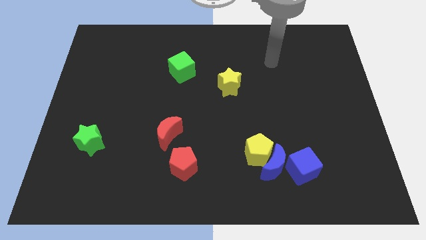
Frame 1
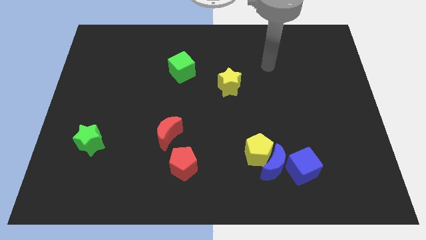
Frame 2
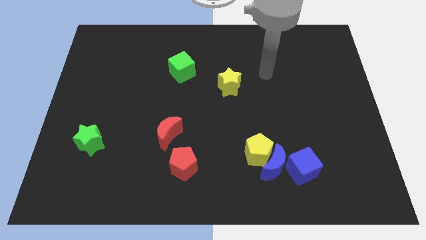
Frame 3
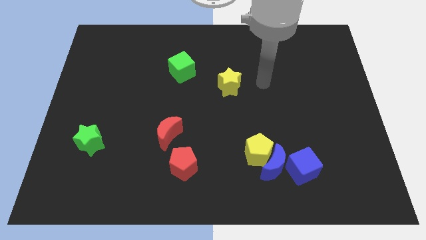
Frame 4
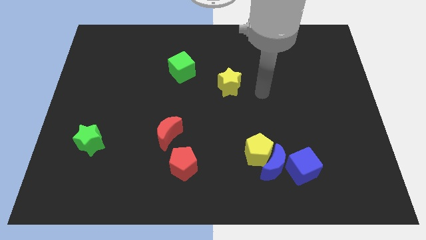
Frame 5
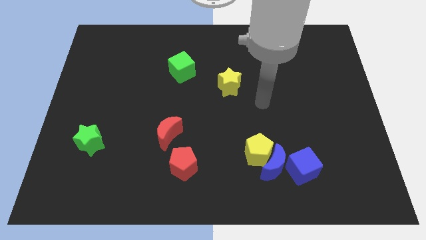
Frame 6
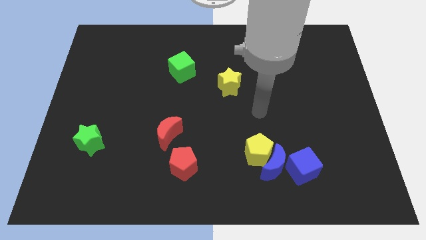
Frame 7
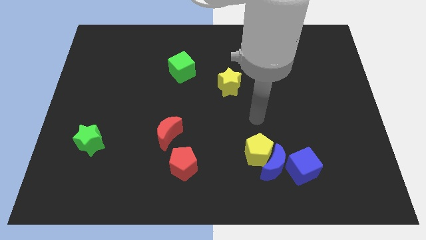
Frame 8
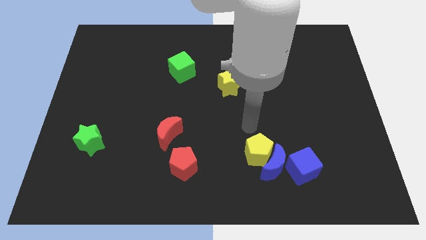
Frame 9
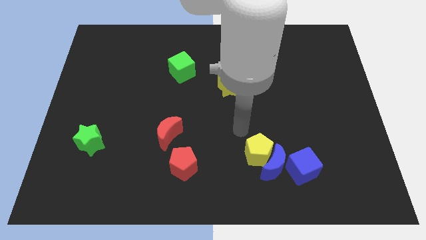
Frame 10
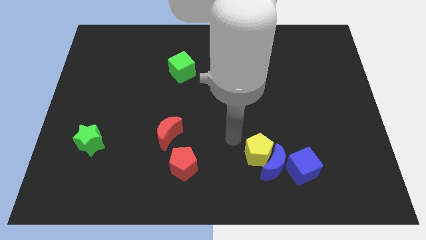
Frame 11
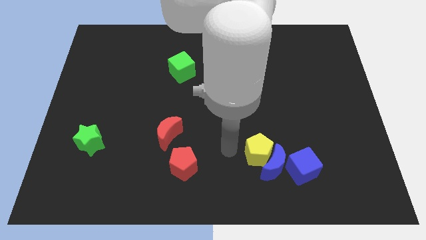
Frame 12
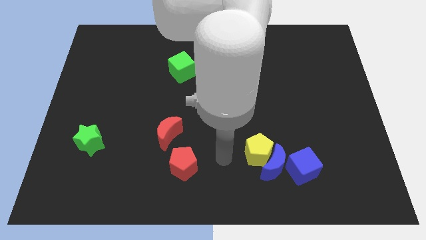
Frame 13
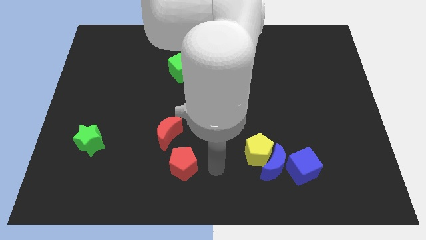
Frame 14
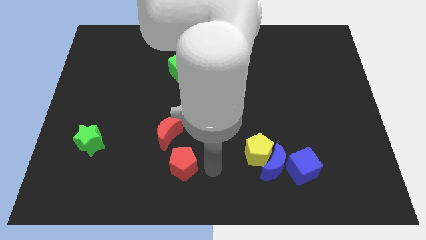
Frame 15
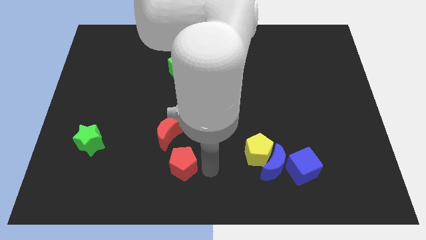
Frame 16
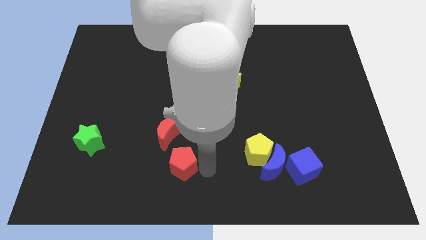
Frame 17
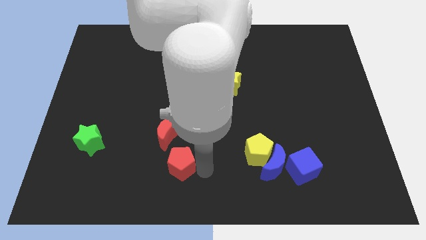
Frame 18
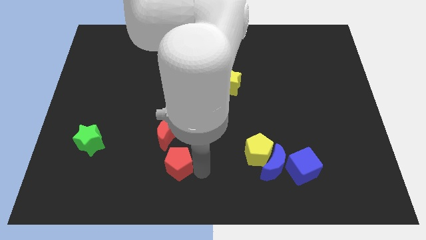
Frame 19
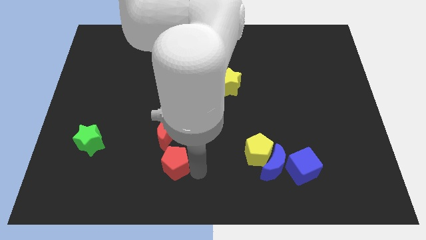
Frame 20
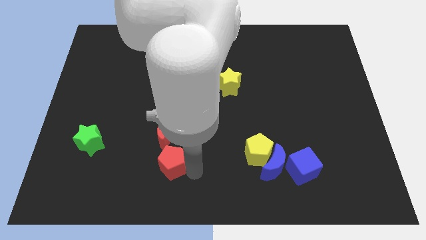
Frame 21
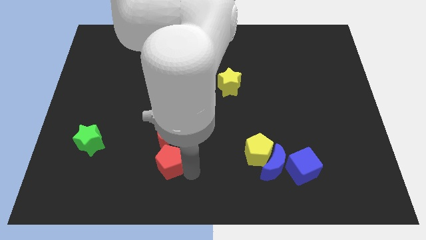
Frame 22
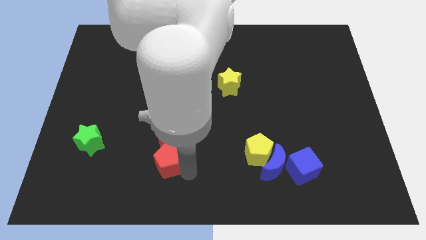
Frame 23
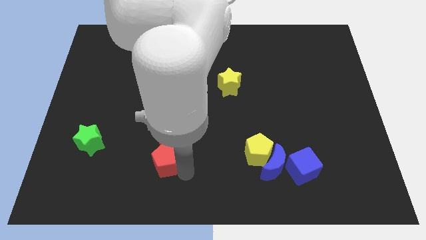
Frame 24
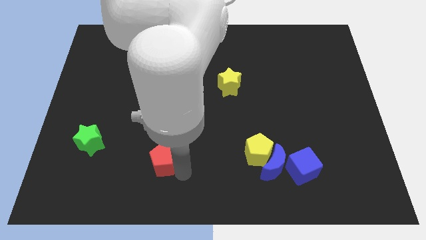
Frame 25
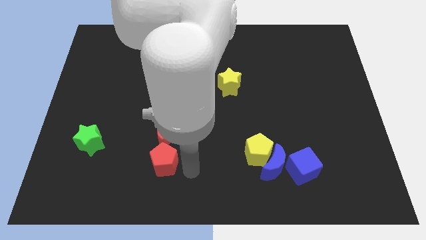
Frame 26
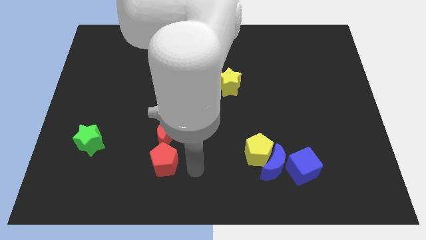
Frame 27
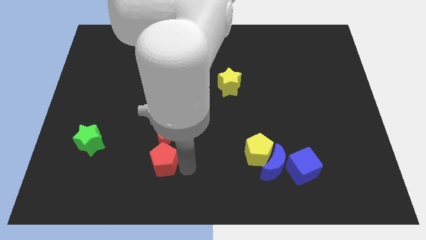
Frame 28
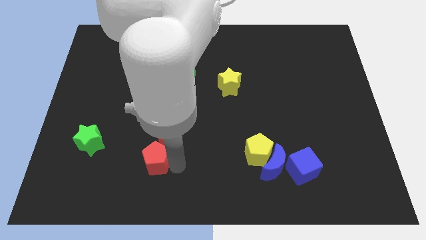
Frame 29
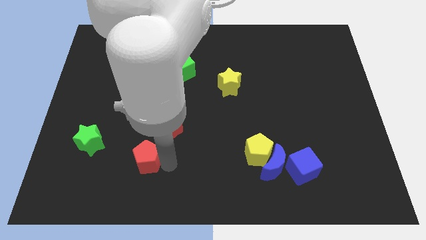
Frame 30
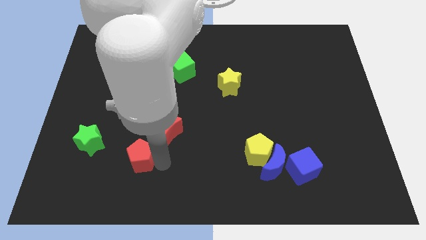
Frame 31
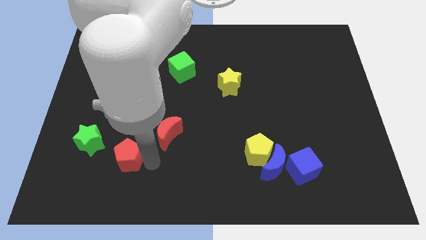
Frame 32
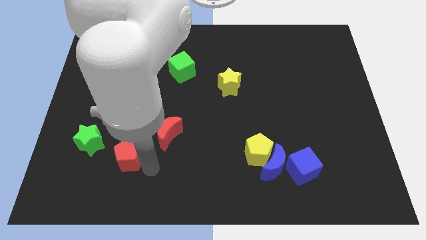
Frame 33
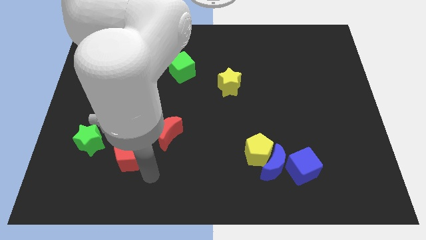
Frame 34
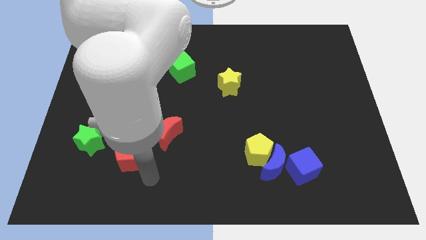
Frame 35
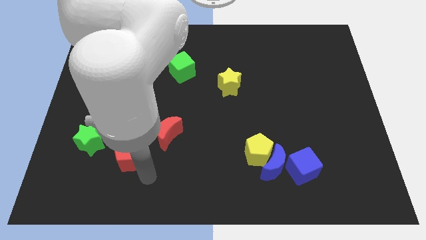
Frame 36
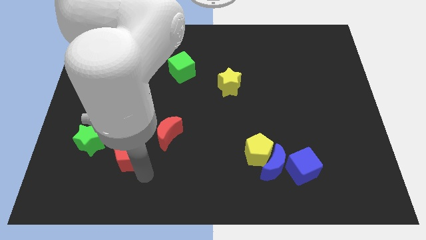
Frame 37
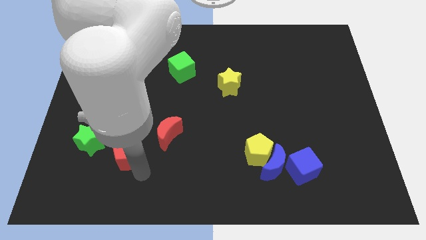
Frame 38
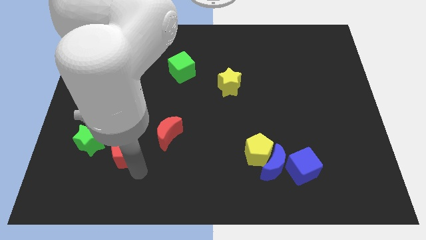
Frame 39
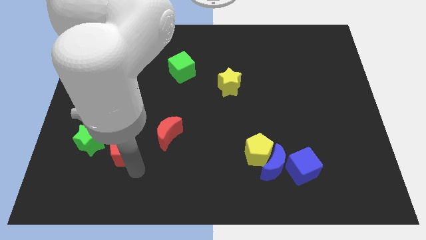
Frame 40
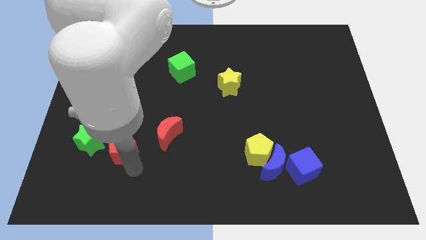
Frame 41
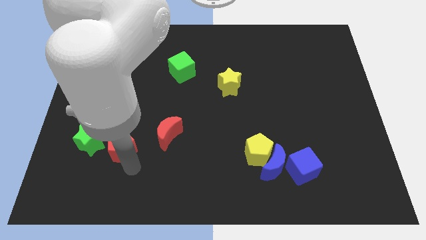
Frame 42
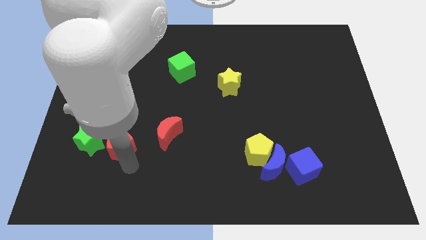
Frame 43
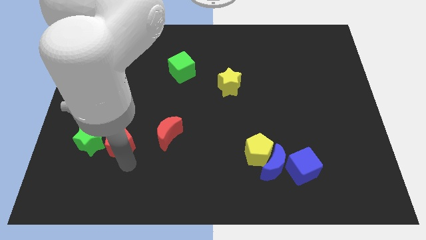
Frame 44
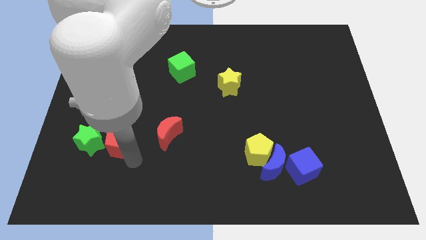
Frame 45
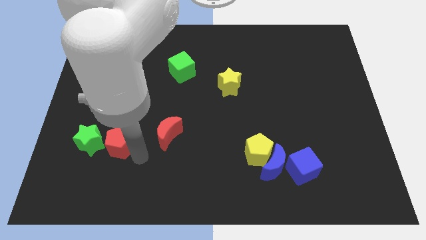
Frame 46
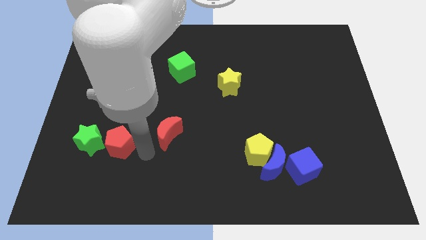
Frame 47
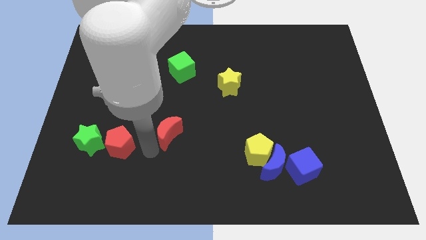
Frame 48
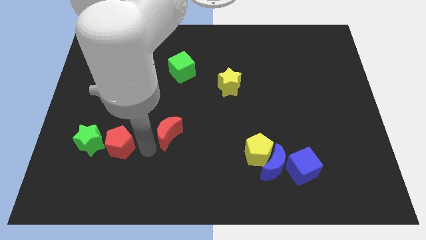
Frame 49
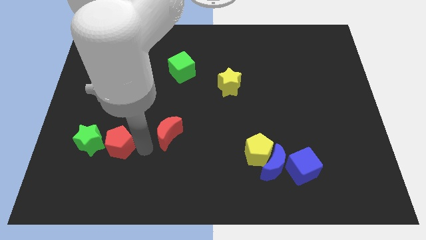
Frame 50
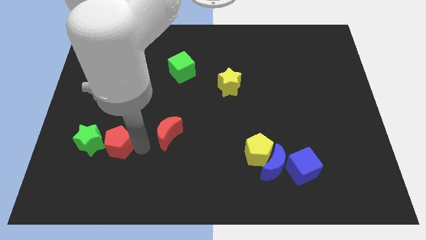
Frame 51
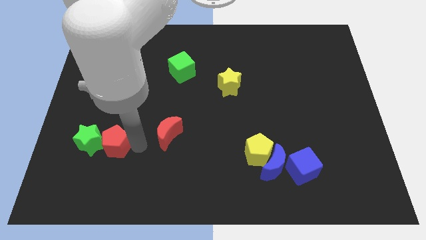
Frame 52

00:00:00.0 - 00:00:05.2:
put the red pentagon close to the green star

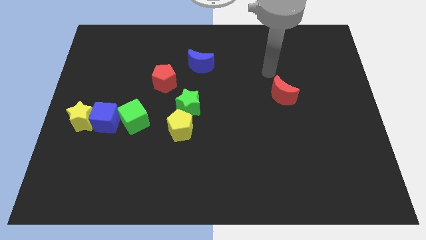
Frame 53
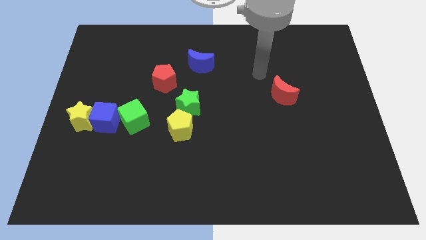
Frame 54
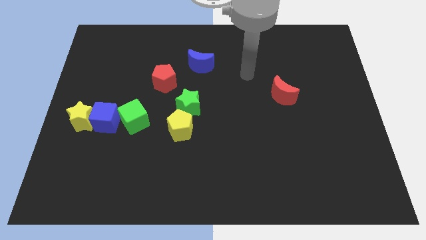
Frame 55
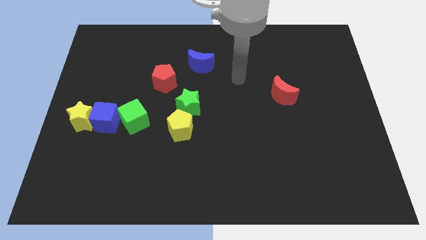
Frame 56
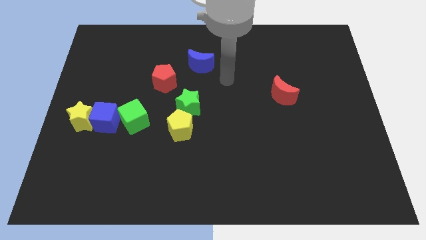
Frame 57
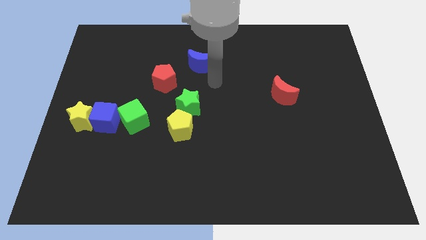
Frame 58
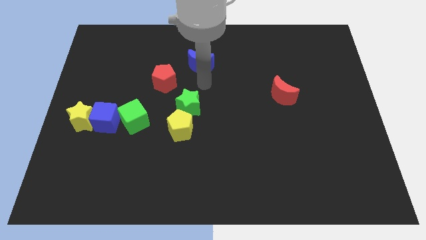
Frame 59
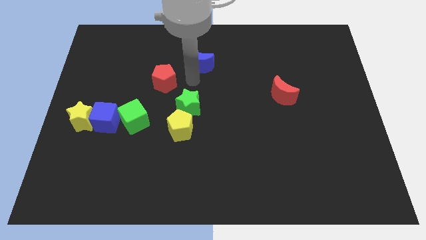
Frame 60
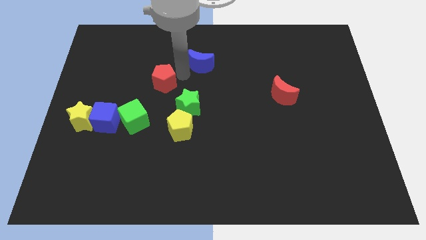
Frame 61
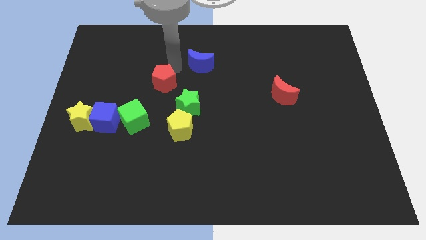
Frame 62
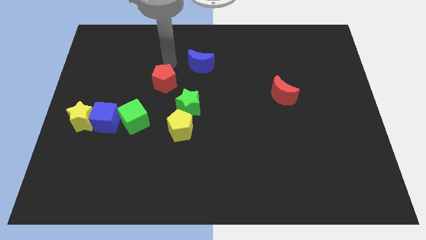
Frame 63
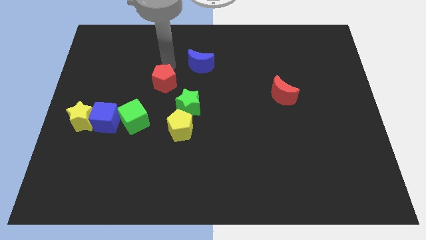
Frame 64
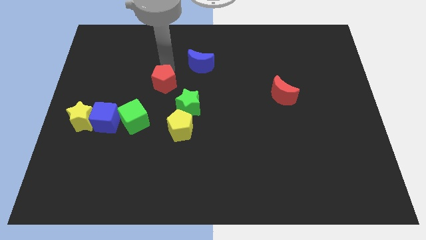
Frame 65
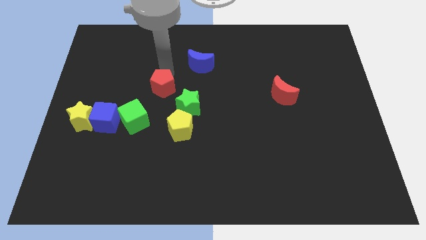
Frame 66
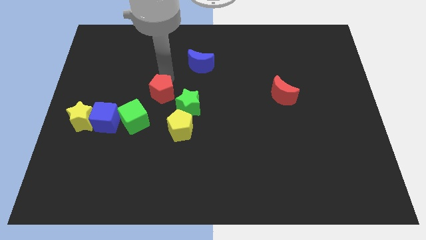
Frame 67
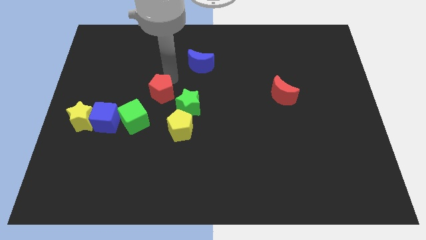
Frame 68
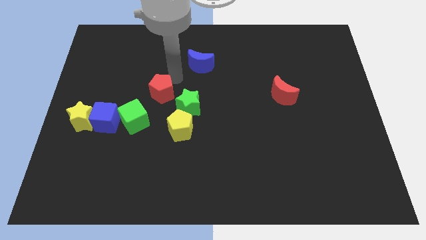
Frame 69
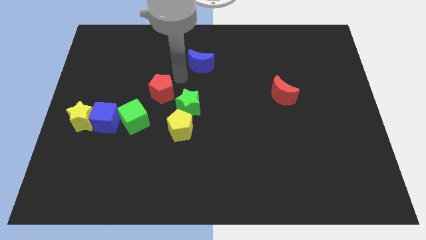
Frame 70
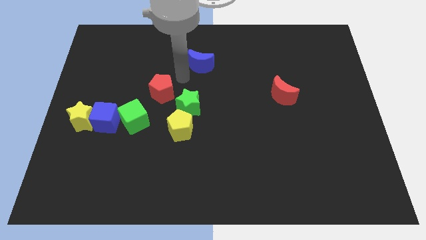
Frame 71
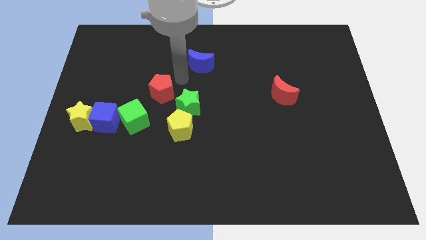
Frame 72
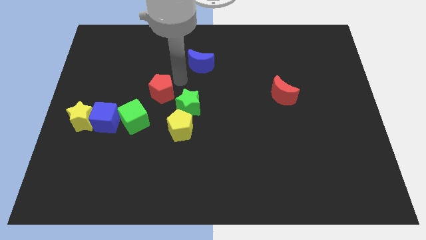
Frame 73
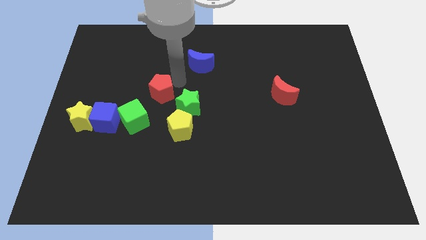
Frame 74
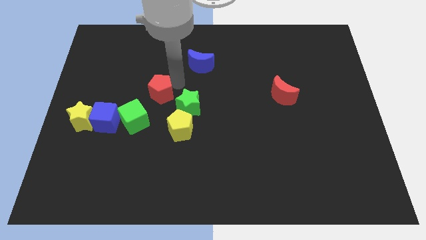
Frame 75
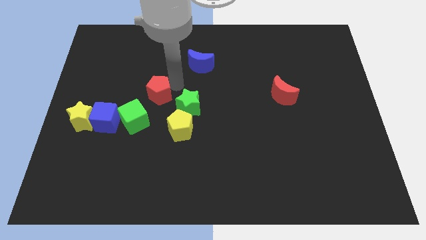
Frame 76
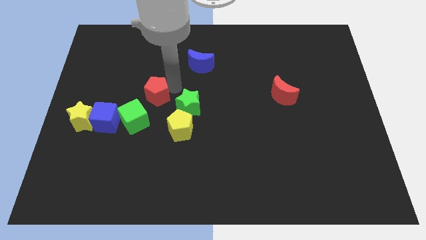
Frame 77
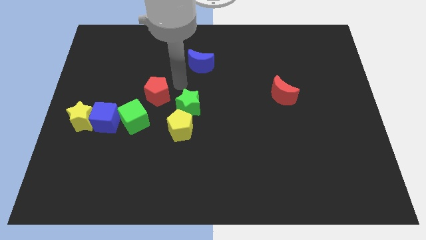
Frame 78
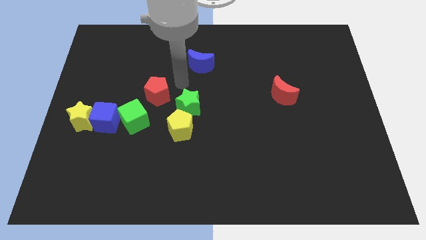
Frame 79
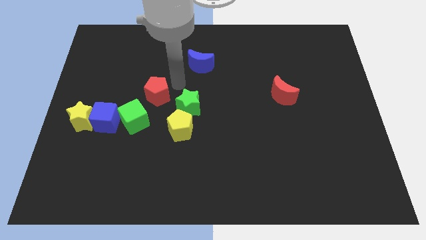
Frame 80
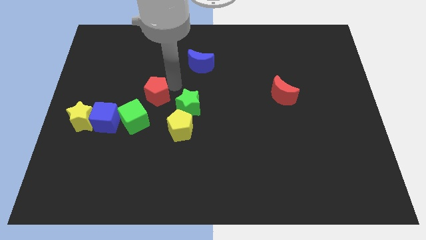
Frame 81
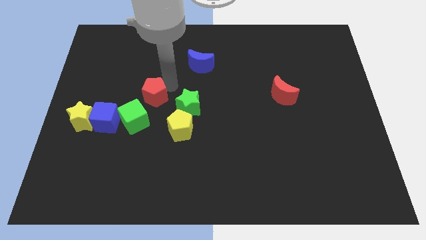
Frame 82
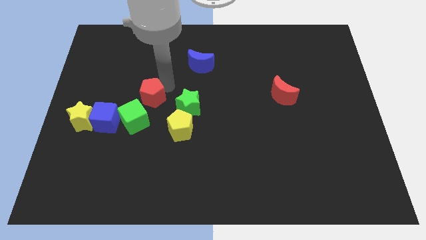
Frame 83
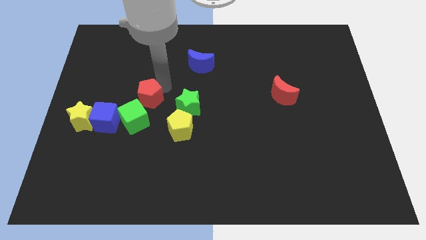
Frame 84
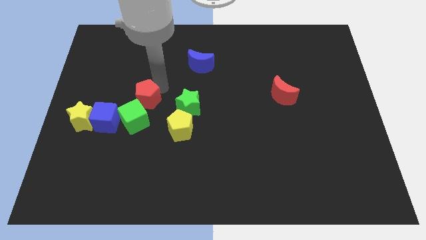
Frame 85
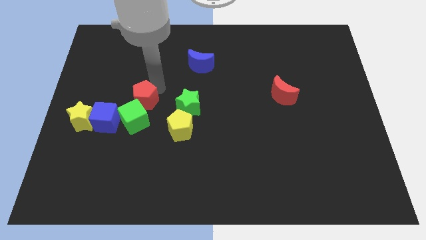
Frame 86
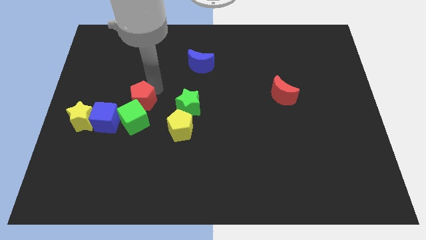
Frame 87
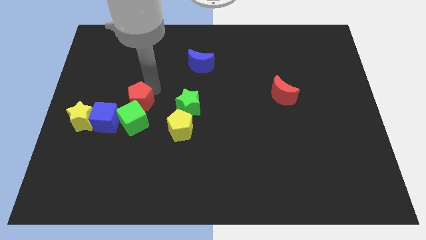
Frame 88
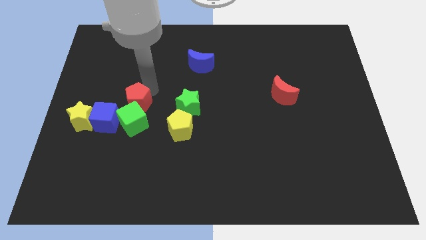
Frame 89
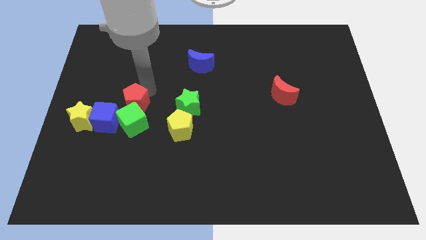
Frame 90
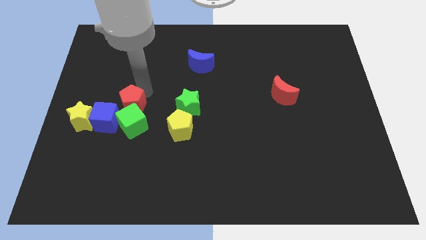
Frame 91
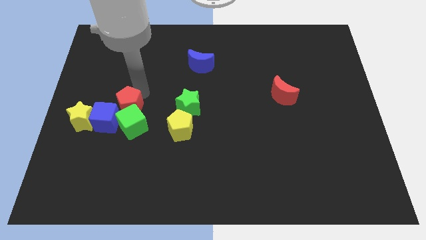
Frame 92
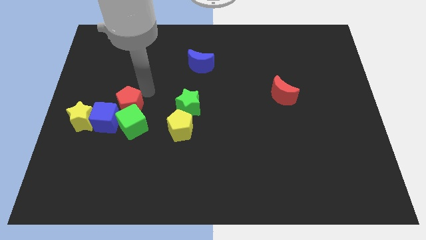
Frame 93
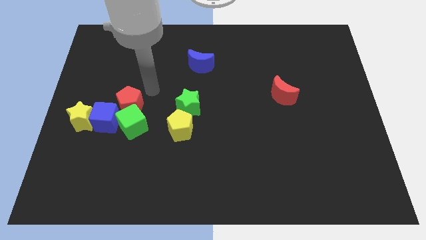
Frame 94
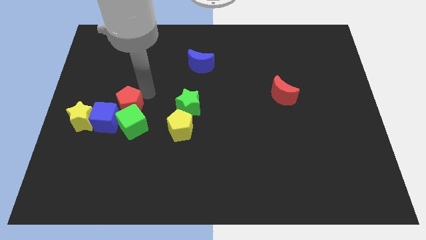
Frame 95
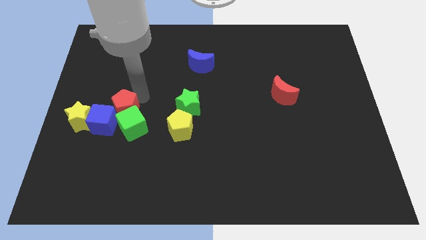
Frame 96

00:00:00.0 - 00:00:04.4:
move the red pentagon towards the blue cube
